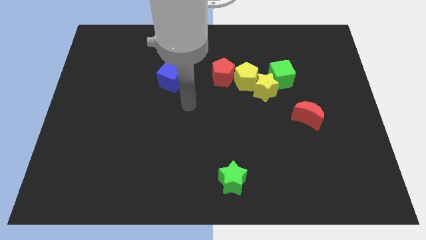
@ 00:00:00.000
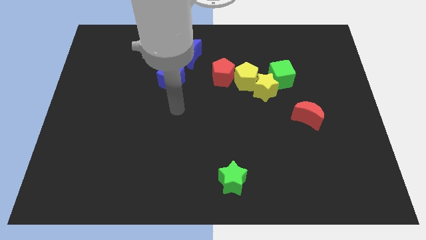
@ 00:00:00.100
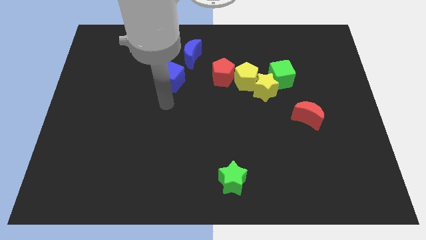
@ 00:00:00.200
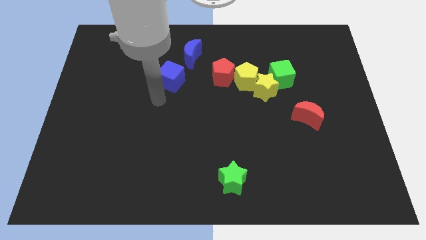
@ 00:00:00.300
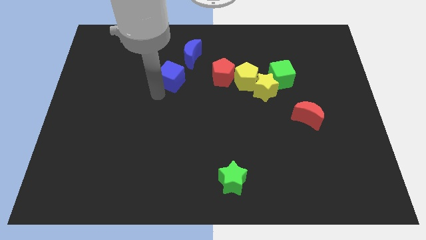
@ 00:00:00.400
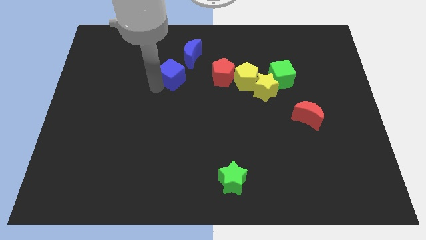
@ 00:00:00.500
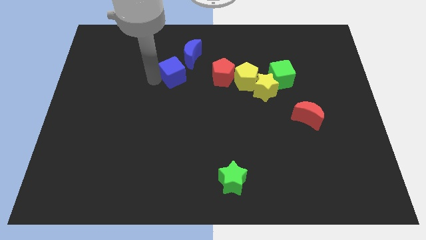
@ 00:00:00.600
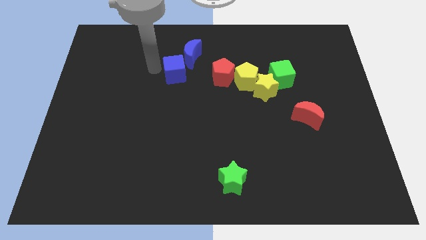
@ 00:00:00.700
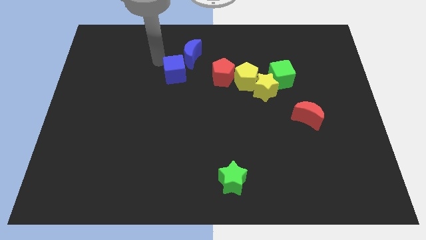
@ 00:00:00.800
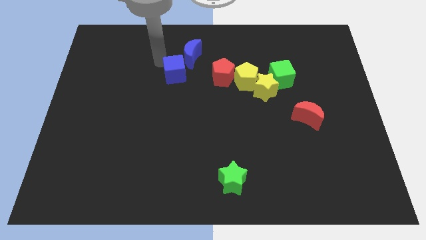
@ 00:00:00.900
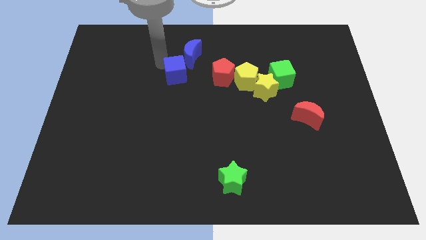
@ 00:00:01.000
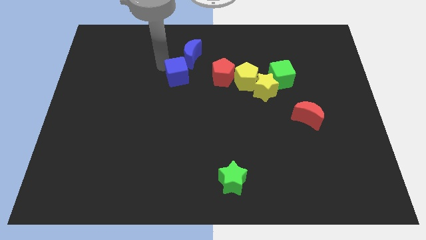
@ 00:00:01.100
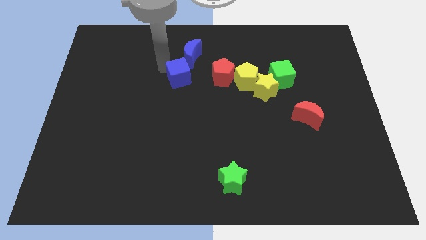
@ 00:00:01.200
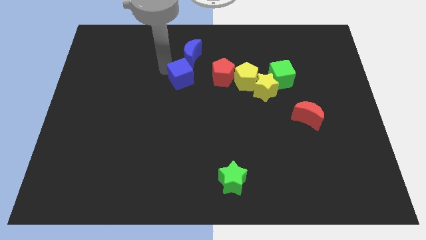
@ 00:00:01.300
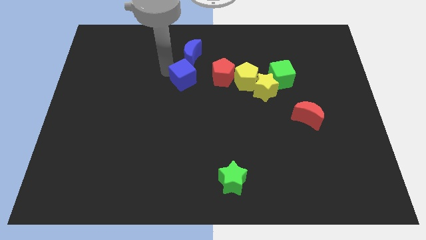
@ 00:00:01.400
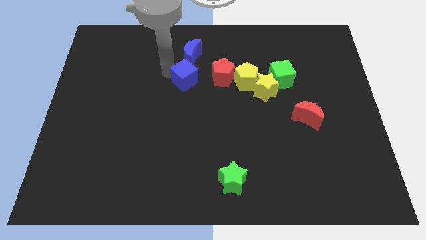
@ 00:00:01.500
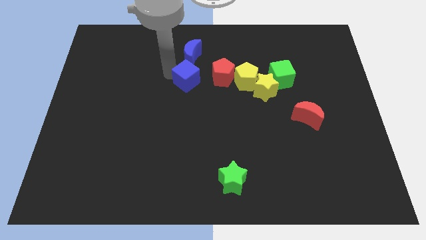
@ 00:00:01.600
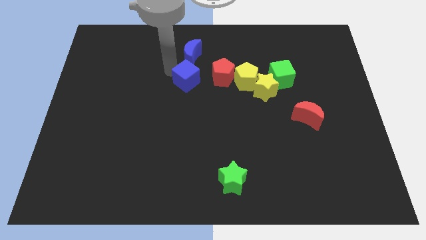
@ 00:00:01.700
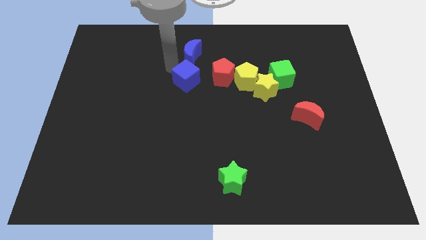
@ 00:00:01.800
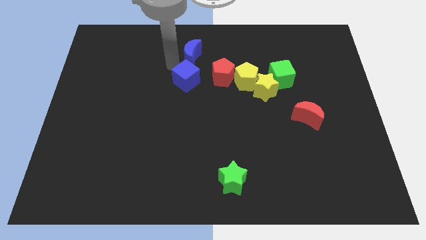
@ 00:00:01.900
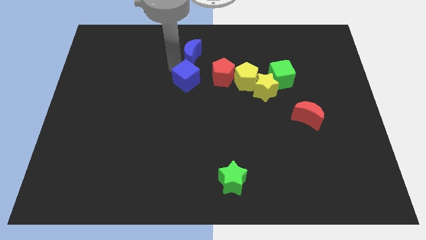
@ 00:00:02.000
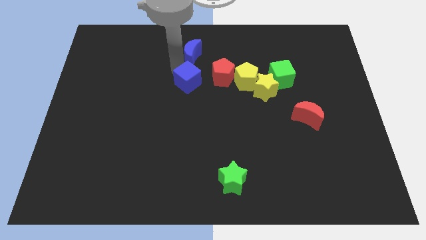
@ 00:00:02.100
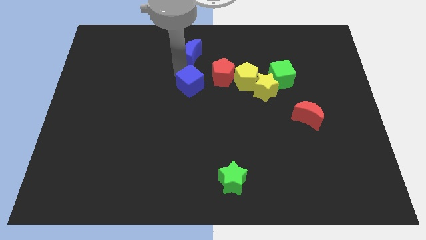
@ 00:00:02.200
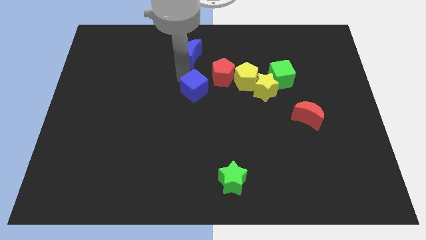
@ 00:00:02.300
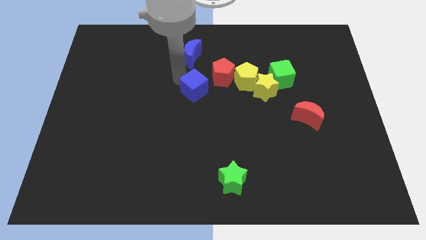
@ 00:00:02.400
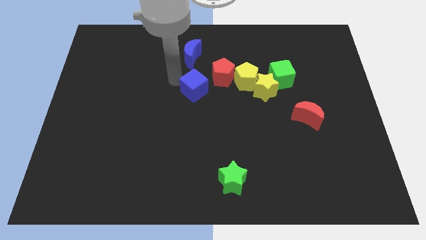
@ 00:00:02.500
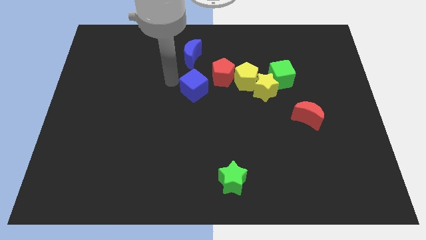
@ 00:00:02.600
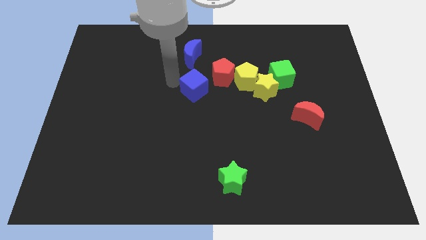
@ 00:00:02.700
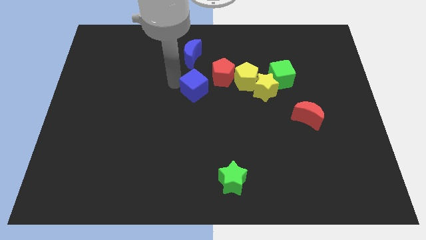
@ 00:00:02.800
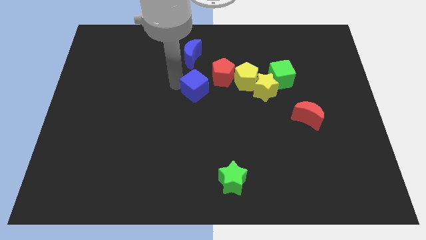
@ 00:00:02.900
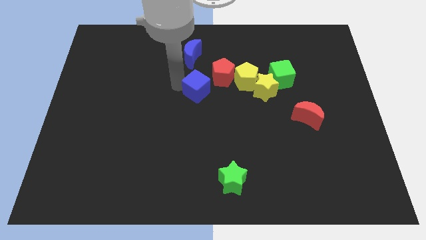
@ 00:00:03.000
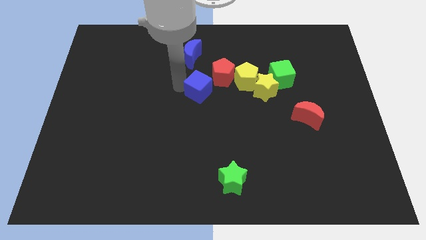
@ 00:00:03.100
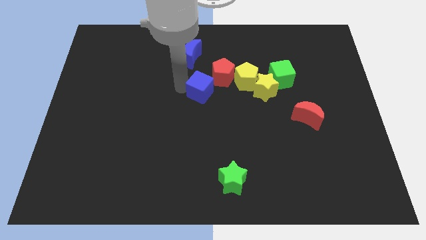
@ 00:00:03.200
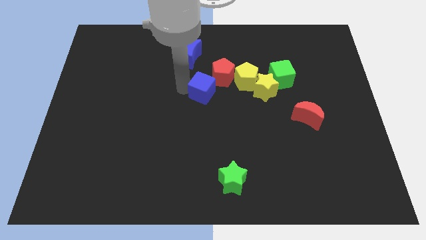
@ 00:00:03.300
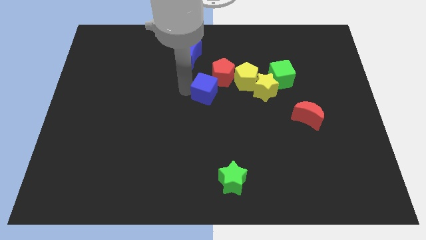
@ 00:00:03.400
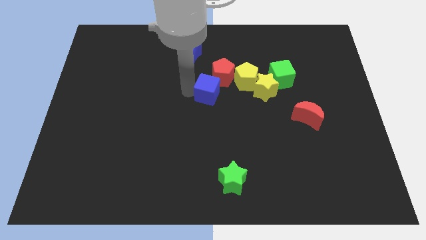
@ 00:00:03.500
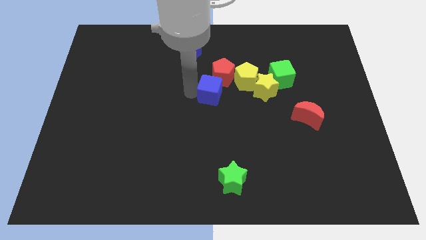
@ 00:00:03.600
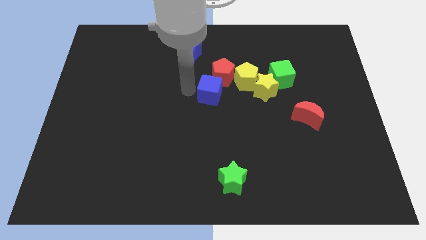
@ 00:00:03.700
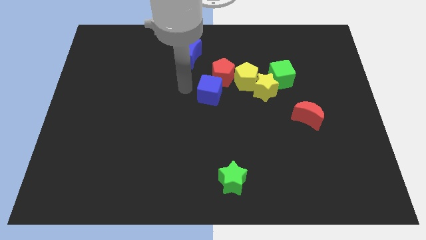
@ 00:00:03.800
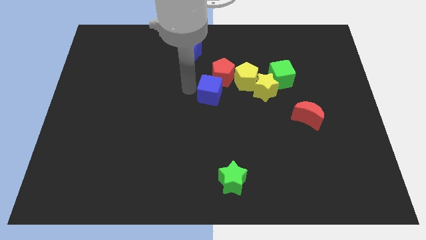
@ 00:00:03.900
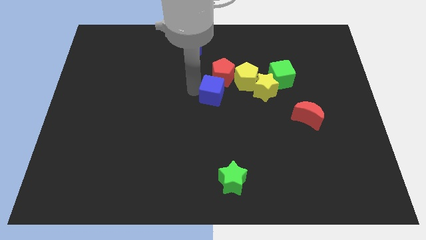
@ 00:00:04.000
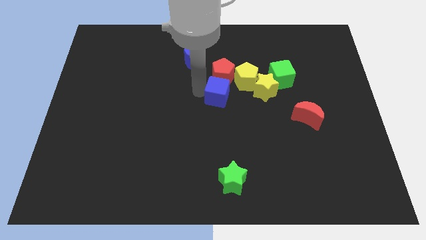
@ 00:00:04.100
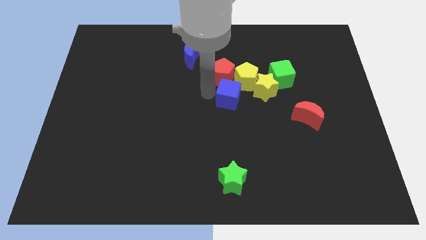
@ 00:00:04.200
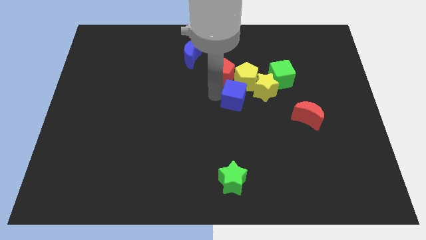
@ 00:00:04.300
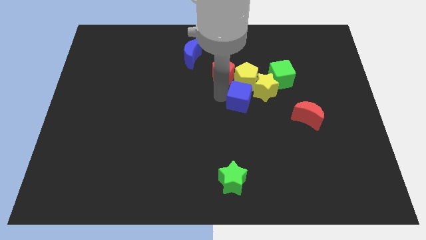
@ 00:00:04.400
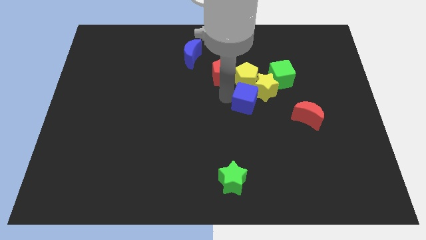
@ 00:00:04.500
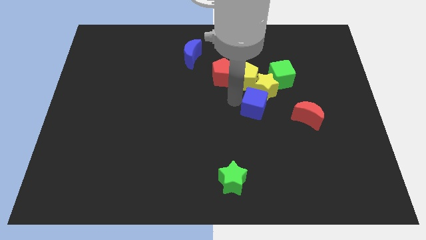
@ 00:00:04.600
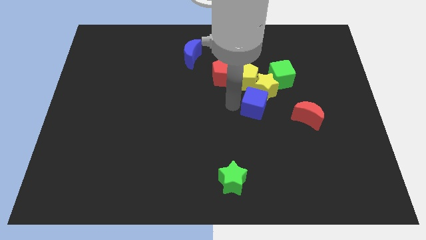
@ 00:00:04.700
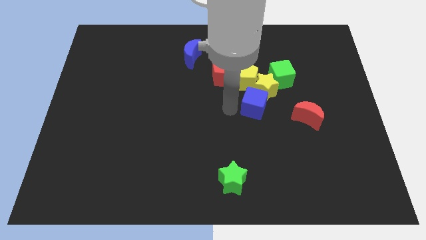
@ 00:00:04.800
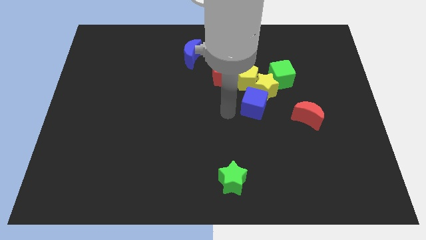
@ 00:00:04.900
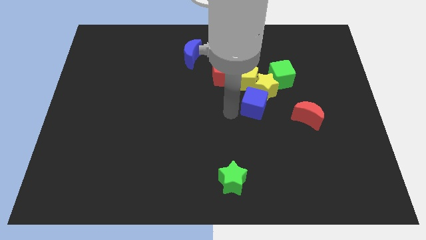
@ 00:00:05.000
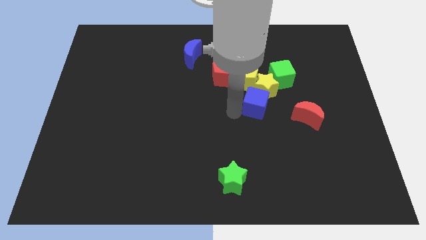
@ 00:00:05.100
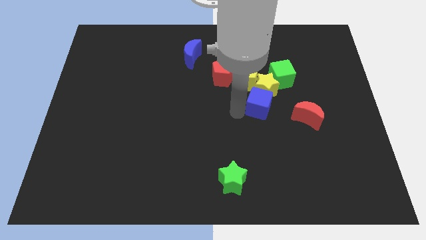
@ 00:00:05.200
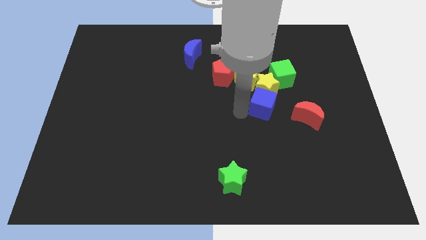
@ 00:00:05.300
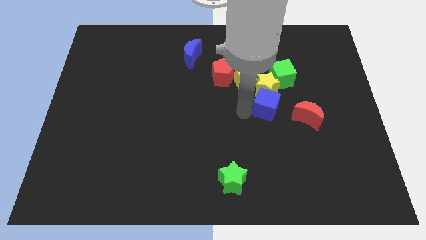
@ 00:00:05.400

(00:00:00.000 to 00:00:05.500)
move the blue cube diagonally up and to the left of the red moon

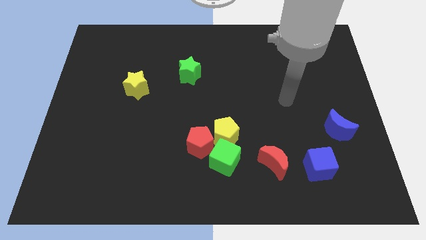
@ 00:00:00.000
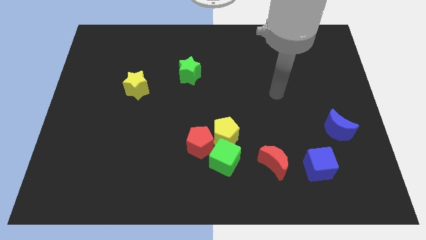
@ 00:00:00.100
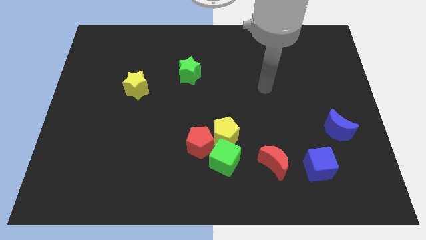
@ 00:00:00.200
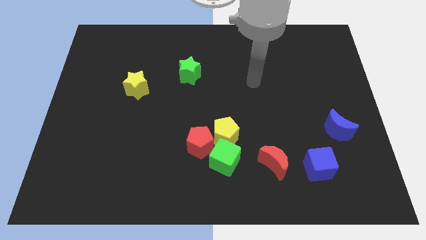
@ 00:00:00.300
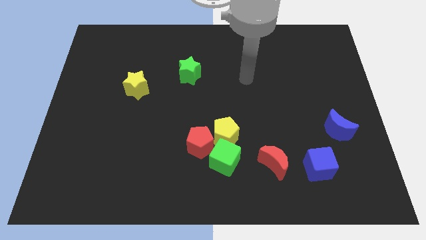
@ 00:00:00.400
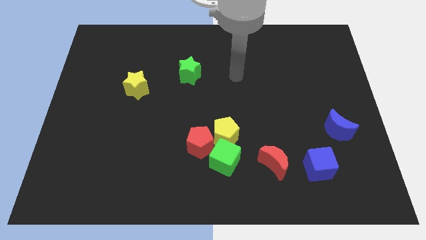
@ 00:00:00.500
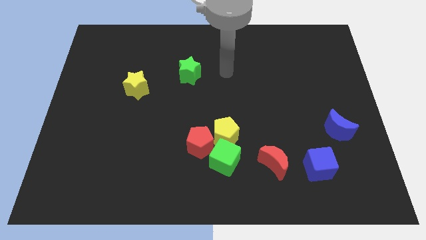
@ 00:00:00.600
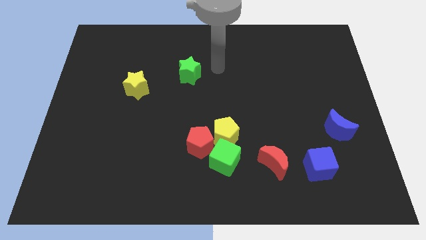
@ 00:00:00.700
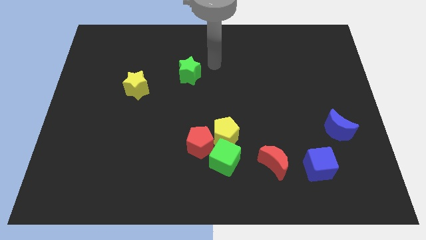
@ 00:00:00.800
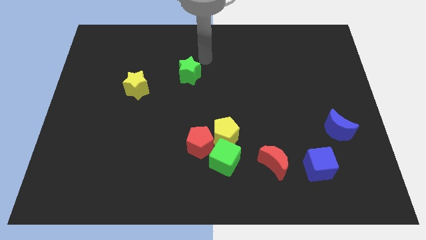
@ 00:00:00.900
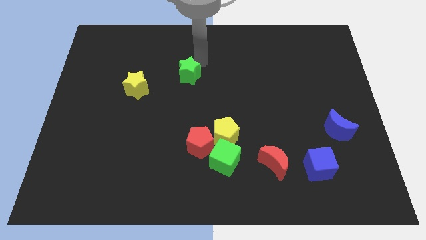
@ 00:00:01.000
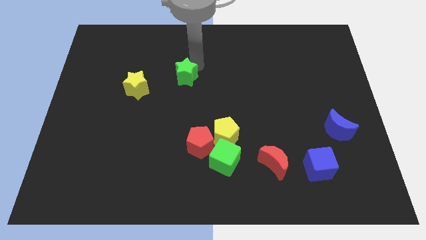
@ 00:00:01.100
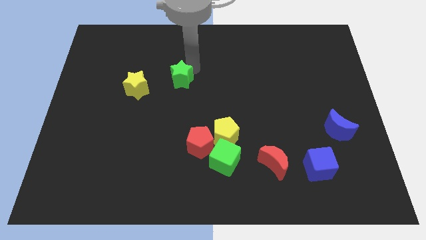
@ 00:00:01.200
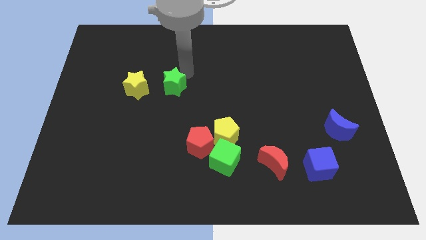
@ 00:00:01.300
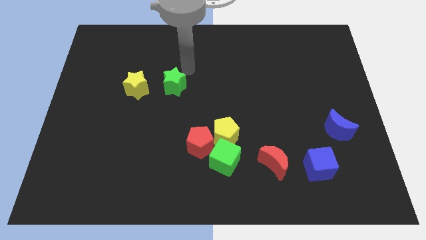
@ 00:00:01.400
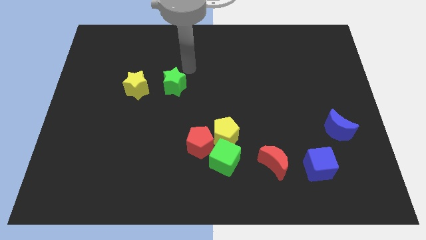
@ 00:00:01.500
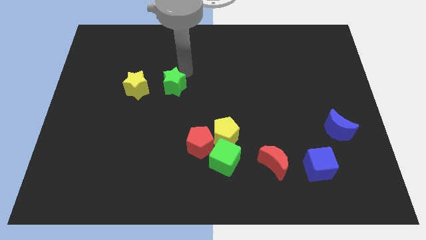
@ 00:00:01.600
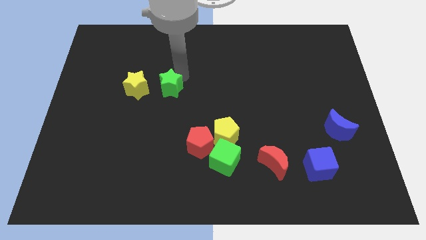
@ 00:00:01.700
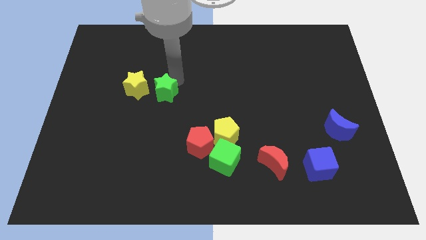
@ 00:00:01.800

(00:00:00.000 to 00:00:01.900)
move the green star to the bottom right side of the yellow star
